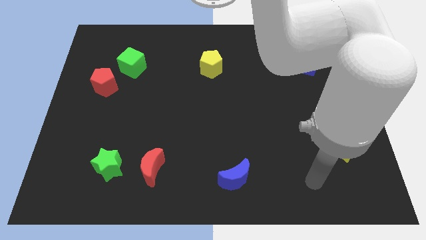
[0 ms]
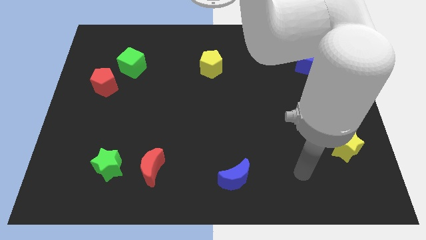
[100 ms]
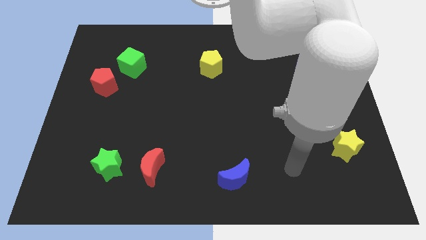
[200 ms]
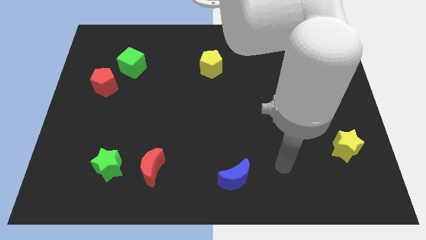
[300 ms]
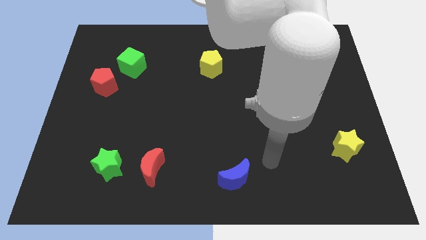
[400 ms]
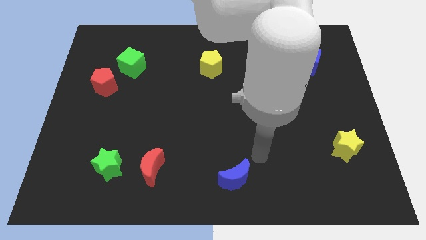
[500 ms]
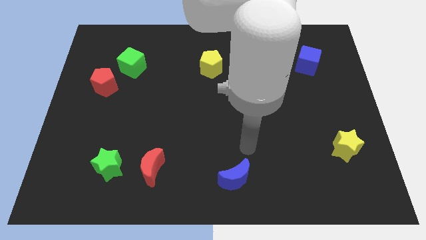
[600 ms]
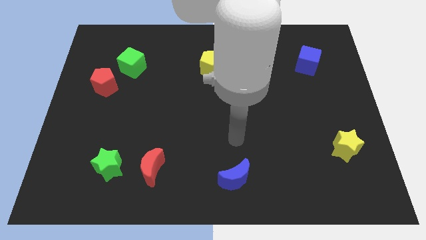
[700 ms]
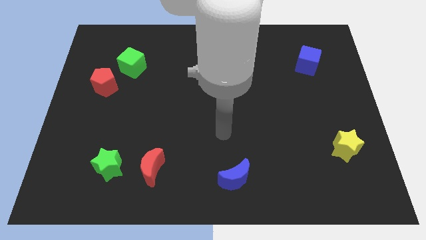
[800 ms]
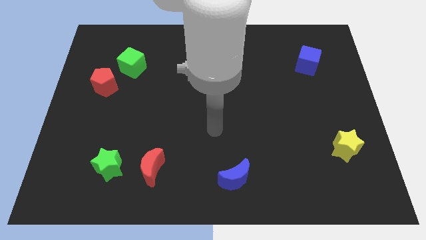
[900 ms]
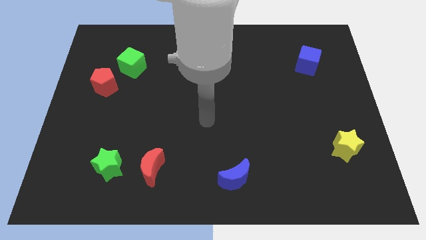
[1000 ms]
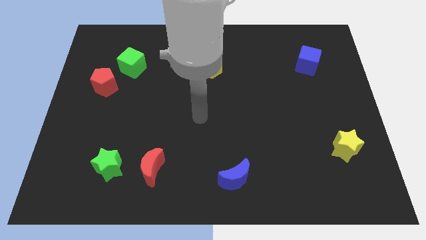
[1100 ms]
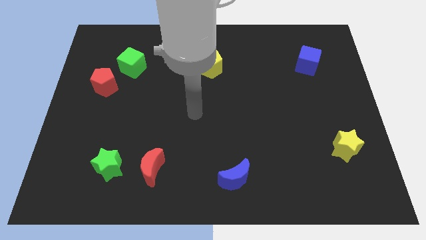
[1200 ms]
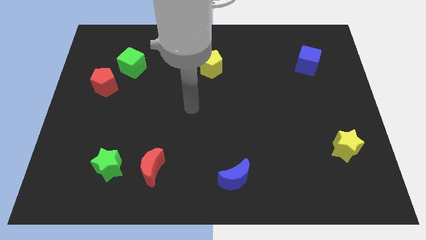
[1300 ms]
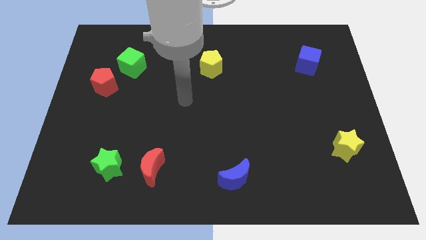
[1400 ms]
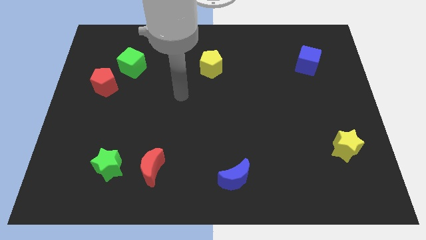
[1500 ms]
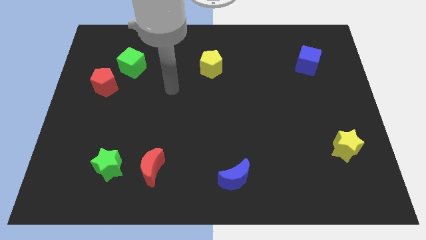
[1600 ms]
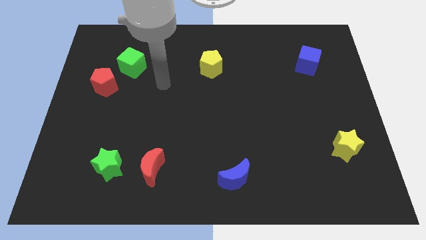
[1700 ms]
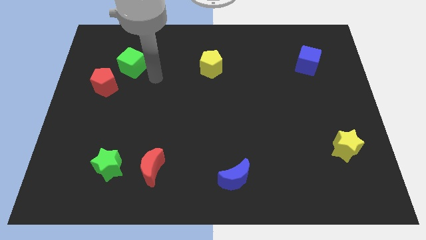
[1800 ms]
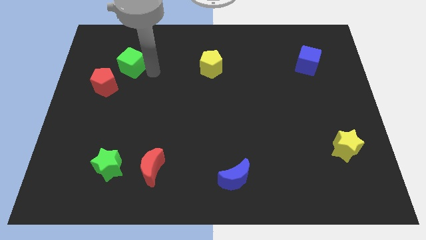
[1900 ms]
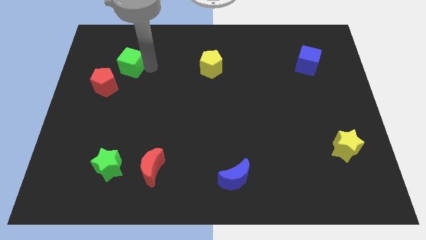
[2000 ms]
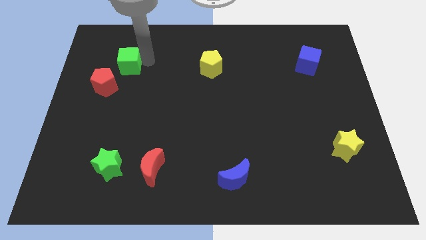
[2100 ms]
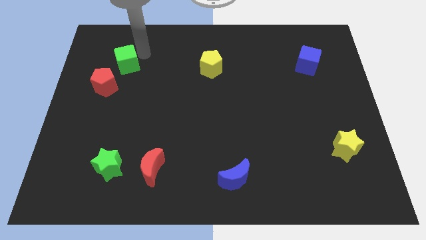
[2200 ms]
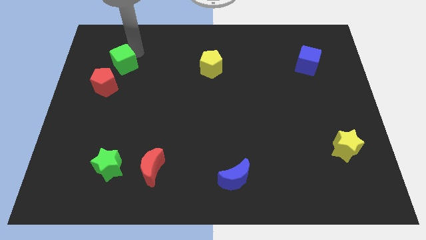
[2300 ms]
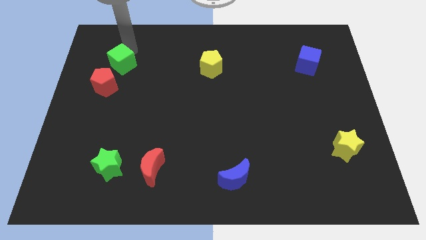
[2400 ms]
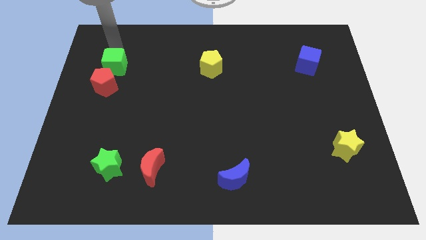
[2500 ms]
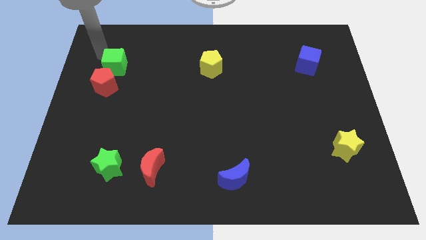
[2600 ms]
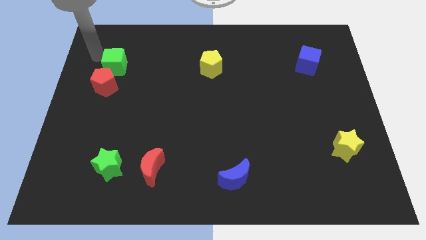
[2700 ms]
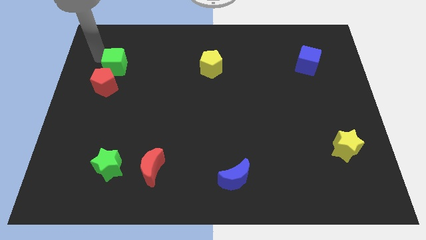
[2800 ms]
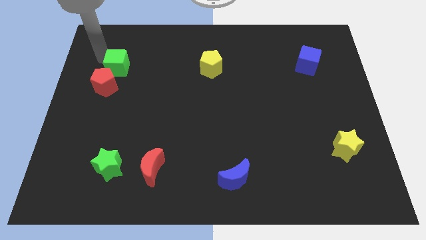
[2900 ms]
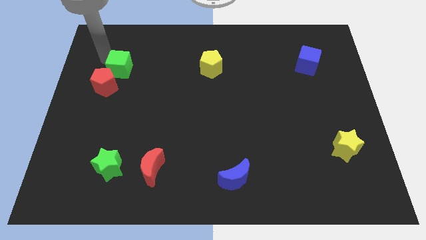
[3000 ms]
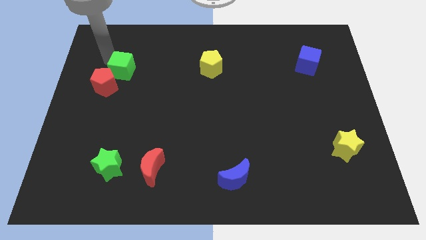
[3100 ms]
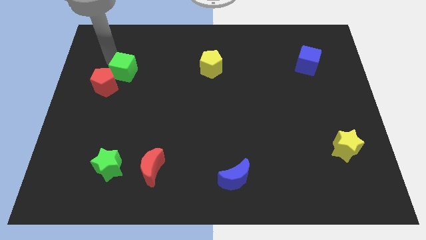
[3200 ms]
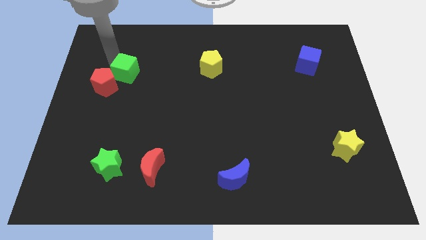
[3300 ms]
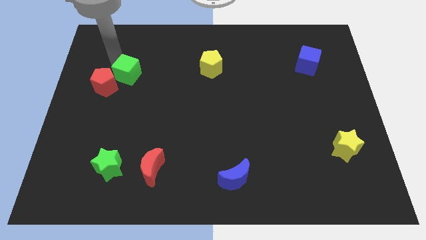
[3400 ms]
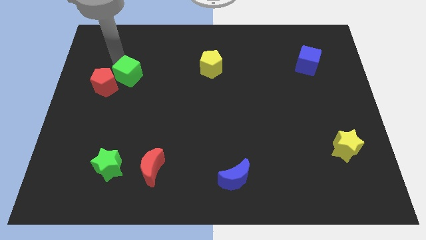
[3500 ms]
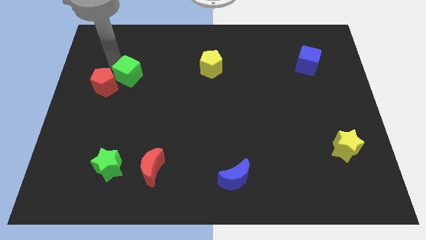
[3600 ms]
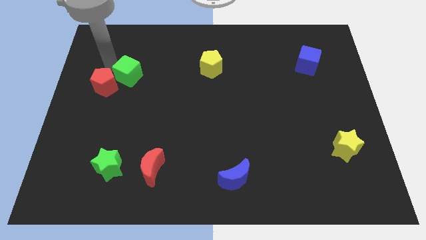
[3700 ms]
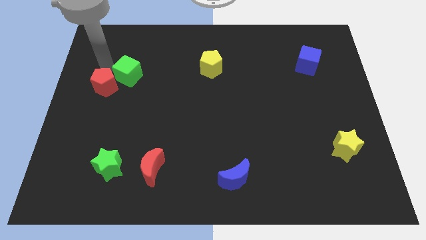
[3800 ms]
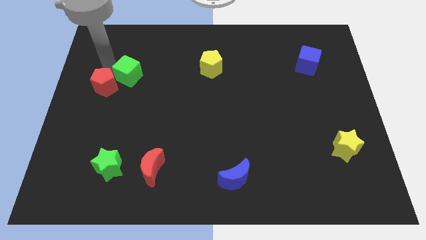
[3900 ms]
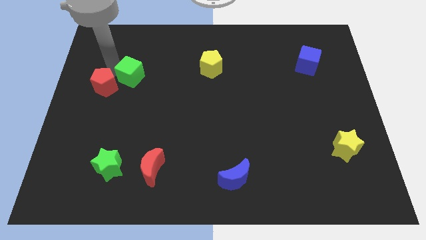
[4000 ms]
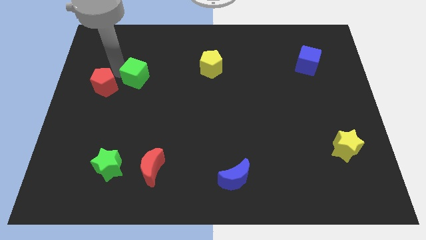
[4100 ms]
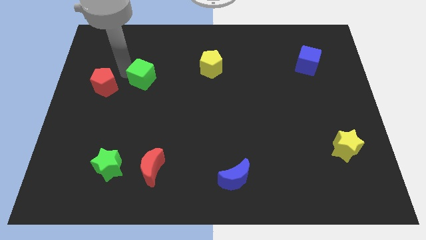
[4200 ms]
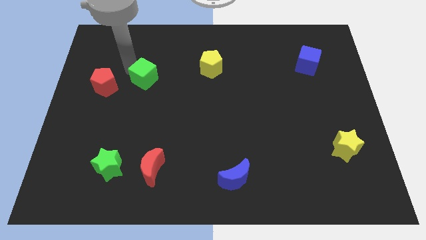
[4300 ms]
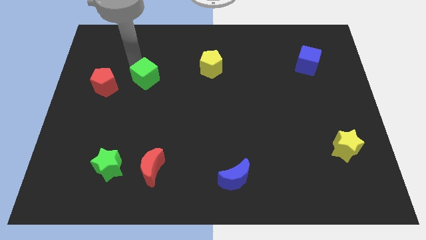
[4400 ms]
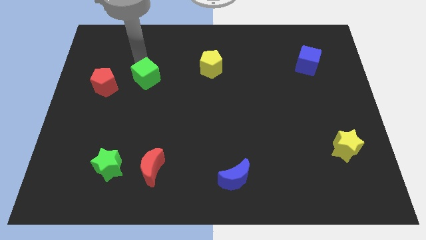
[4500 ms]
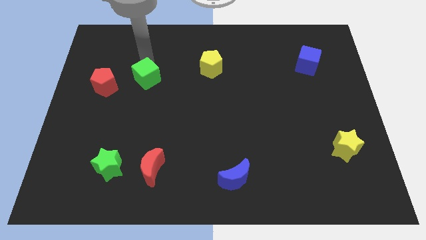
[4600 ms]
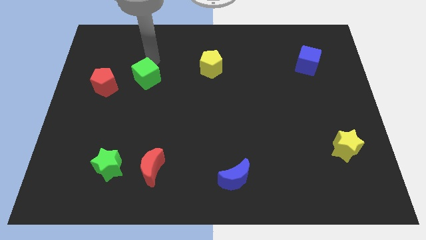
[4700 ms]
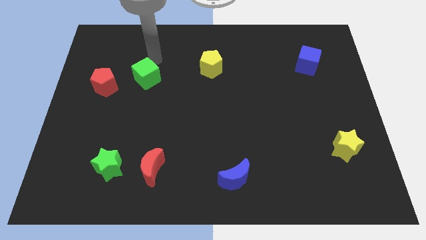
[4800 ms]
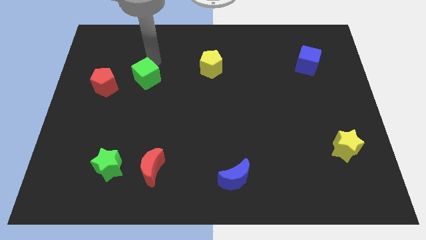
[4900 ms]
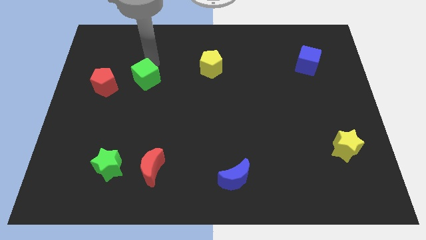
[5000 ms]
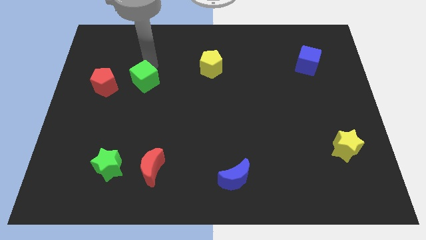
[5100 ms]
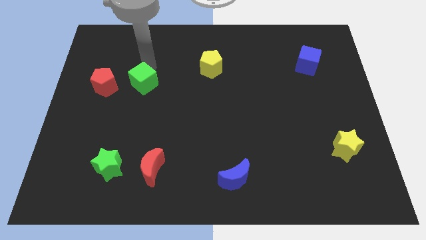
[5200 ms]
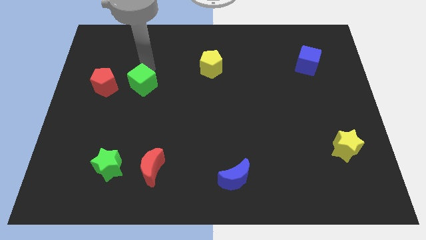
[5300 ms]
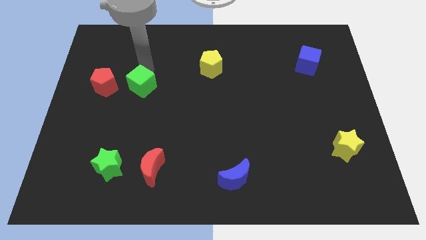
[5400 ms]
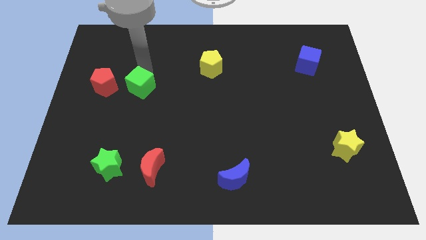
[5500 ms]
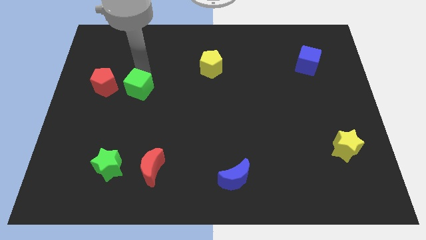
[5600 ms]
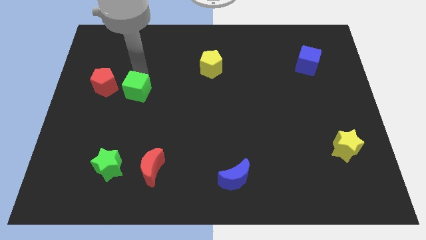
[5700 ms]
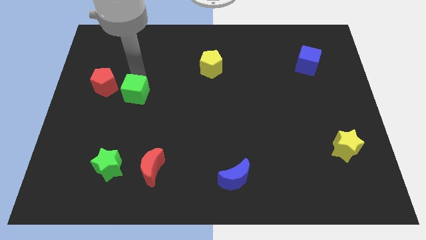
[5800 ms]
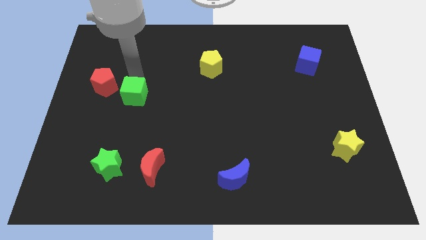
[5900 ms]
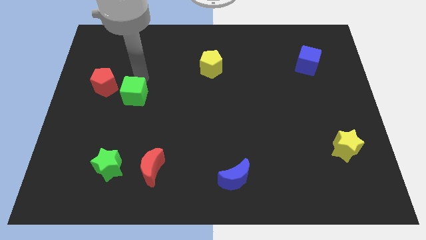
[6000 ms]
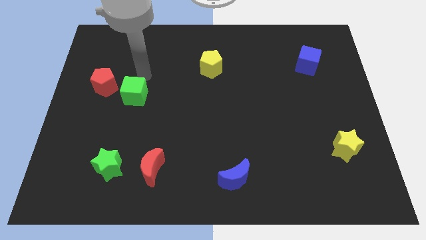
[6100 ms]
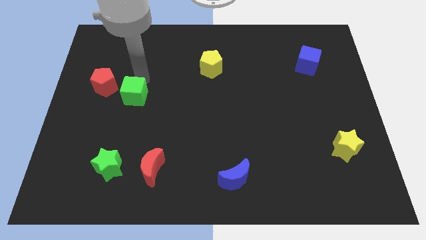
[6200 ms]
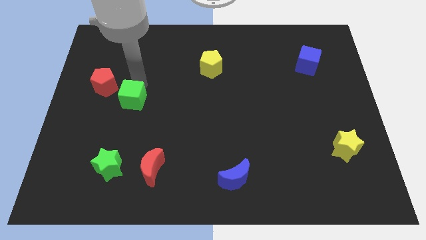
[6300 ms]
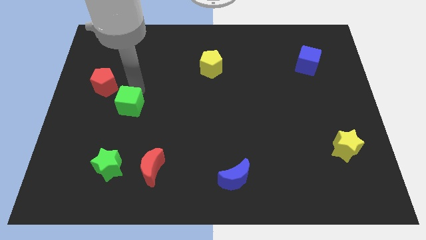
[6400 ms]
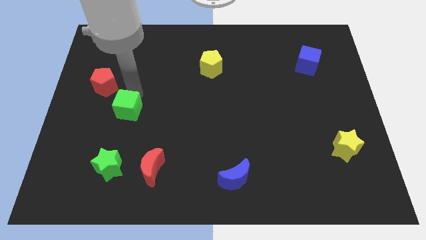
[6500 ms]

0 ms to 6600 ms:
slide the green cube above the green star
